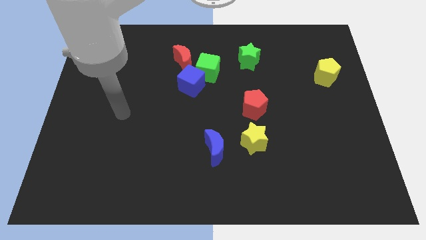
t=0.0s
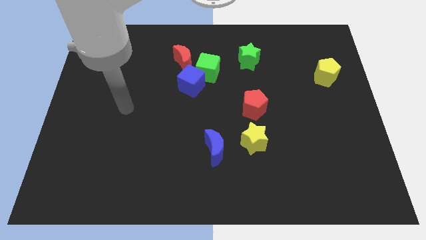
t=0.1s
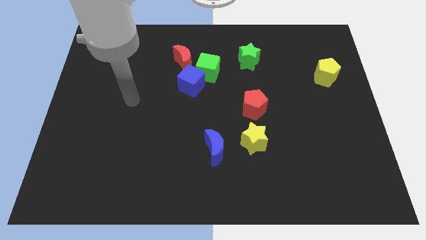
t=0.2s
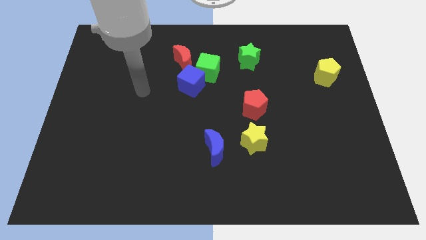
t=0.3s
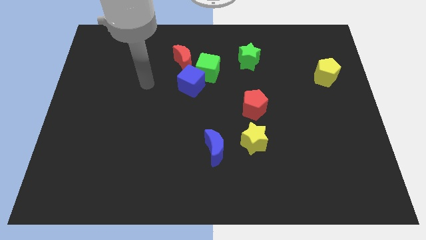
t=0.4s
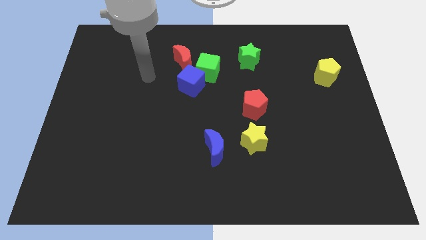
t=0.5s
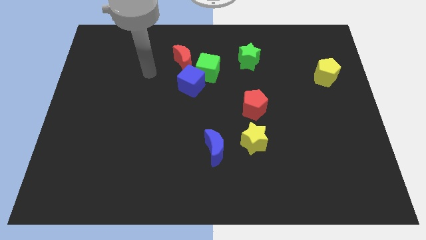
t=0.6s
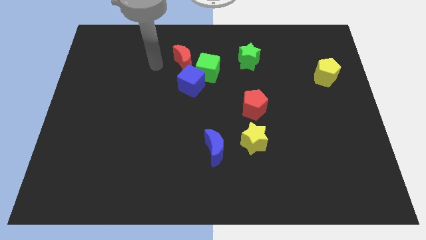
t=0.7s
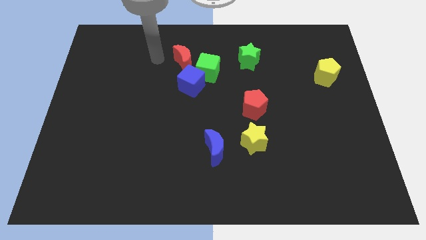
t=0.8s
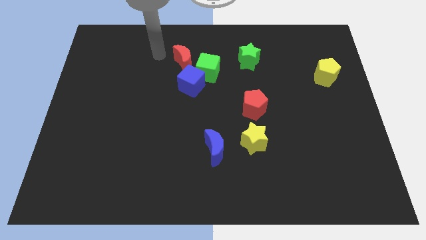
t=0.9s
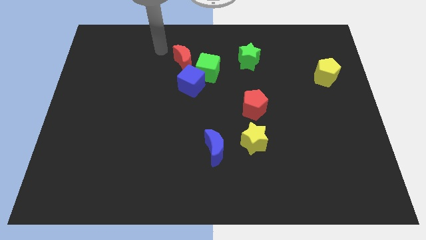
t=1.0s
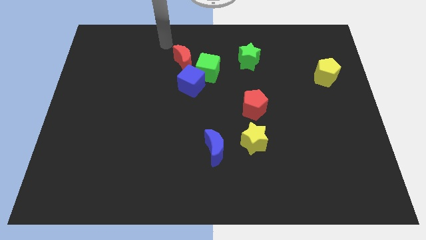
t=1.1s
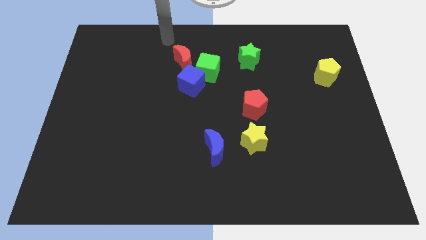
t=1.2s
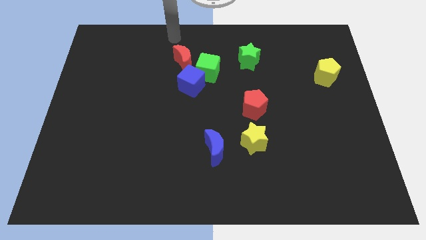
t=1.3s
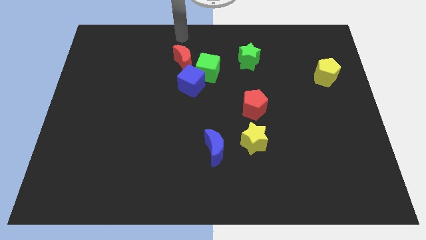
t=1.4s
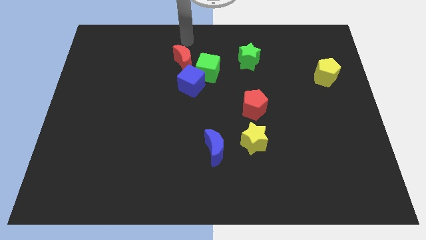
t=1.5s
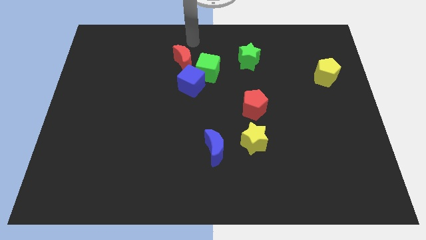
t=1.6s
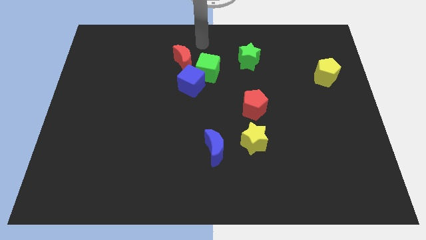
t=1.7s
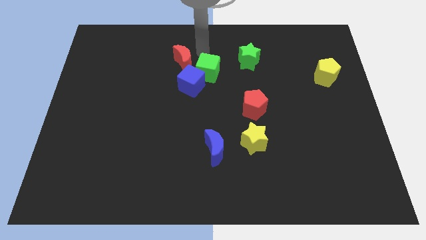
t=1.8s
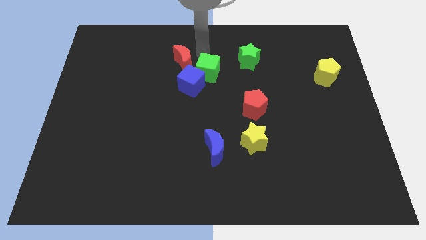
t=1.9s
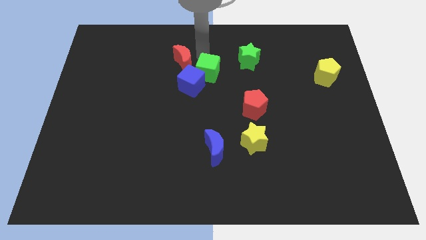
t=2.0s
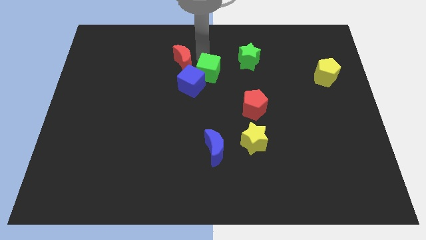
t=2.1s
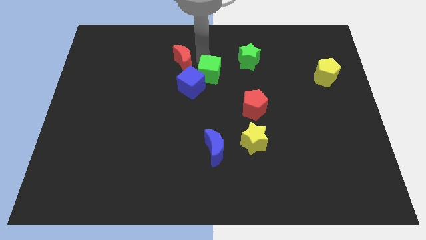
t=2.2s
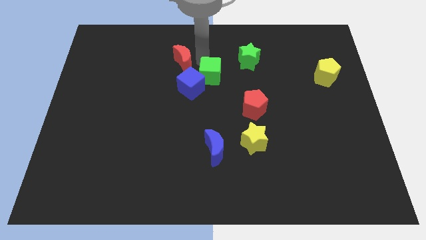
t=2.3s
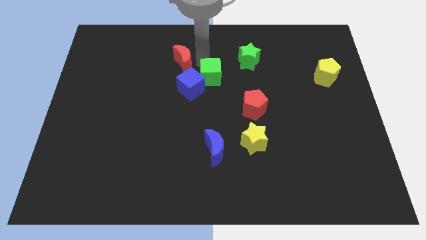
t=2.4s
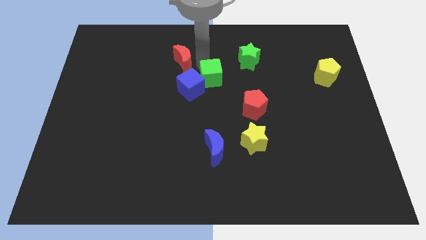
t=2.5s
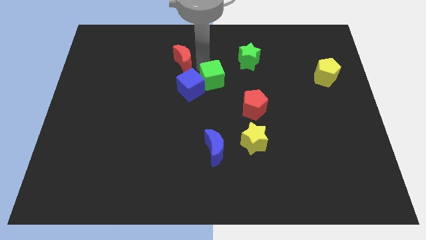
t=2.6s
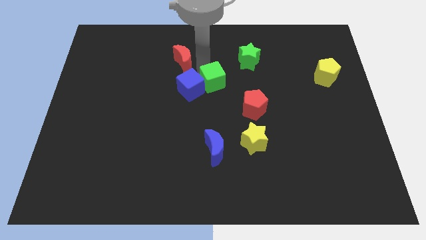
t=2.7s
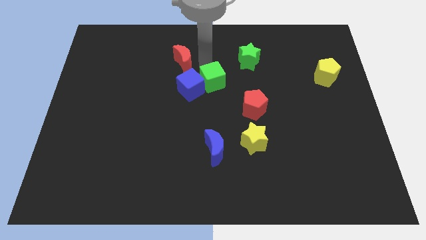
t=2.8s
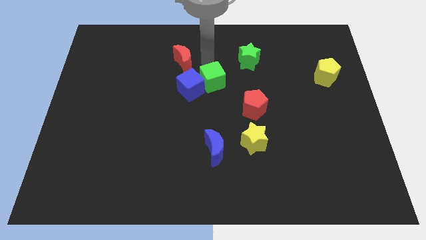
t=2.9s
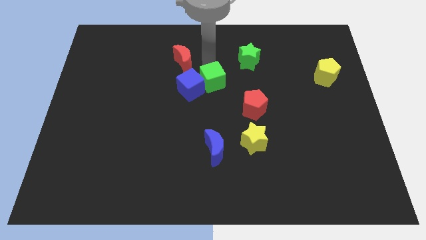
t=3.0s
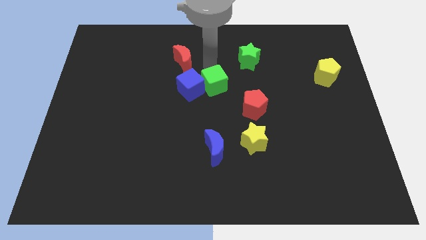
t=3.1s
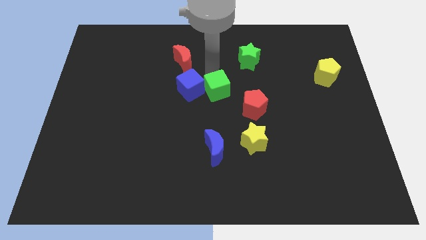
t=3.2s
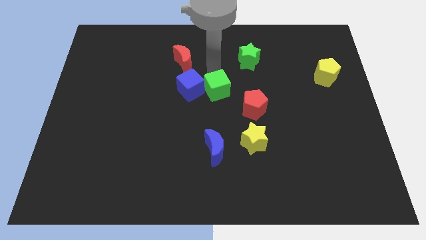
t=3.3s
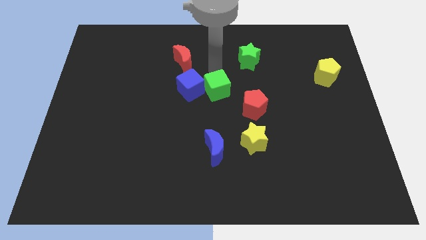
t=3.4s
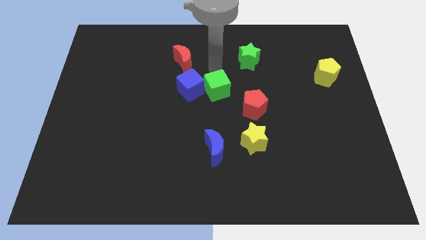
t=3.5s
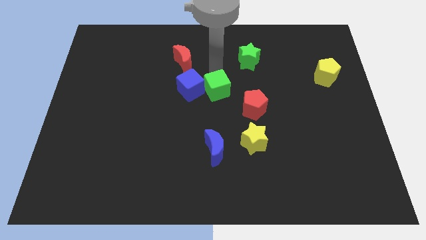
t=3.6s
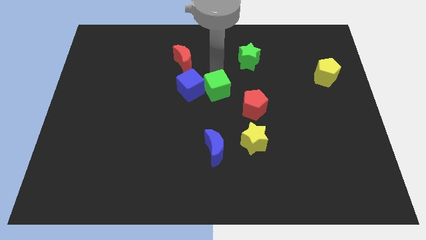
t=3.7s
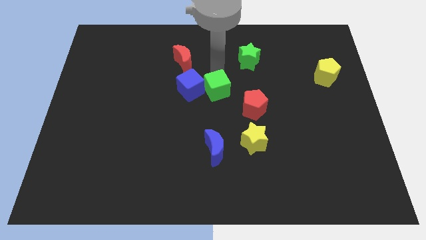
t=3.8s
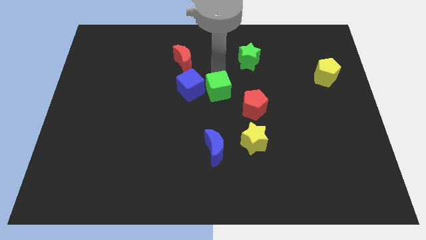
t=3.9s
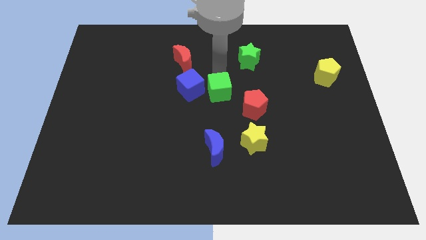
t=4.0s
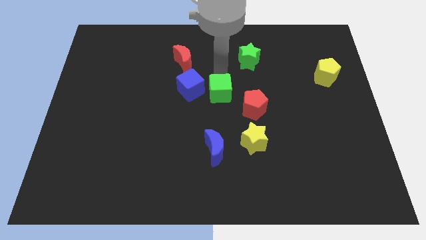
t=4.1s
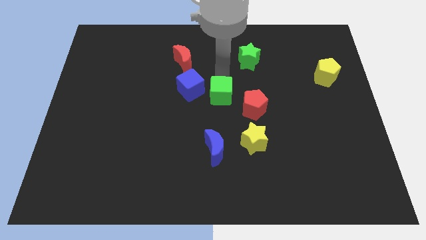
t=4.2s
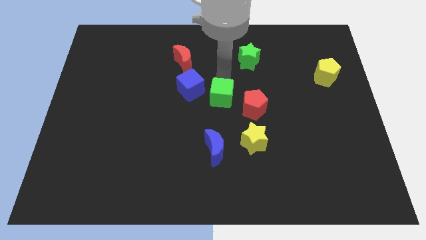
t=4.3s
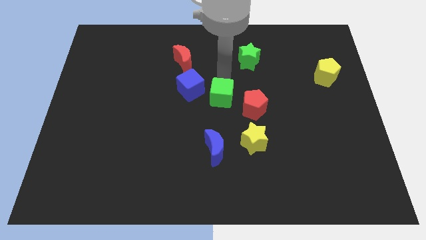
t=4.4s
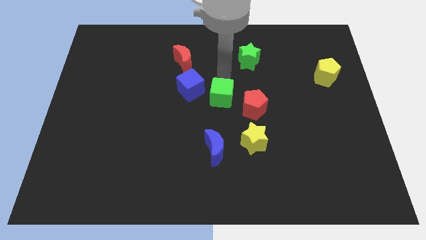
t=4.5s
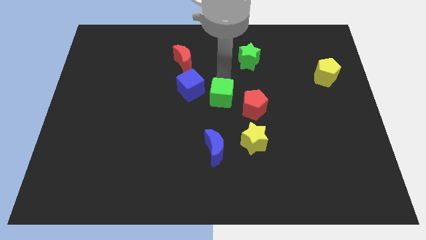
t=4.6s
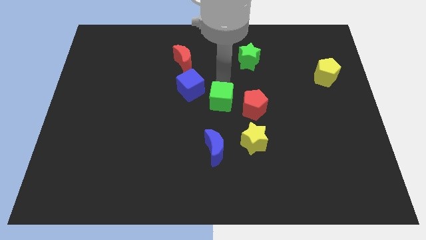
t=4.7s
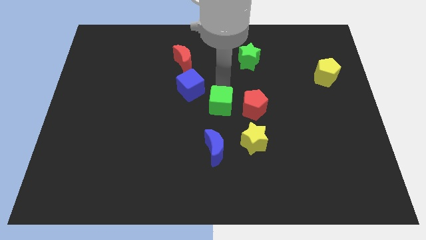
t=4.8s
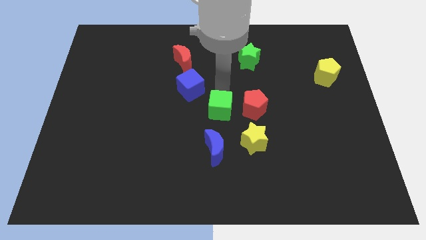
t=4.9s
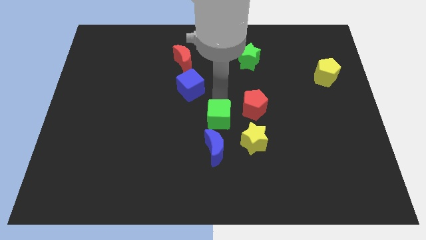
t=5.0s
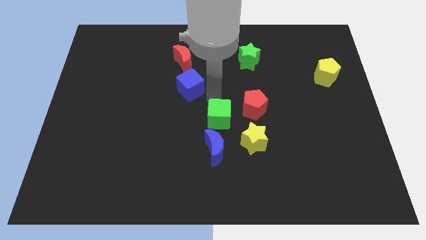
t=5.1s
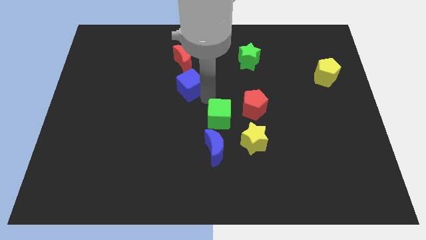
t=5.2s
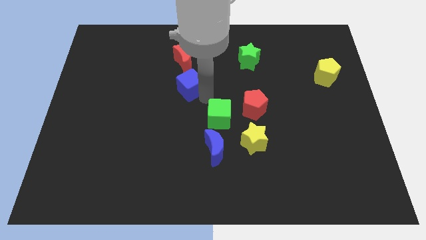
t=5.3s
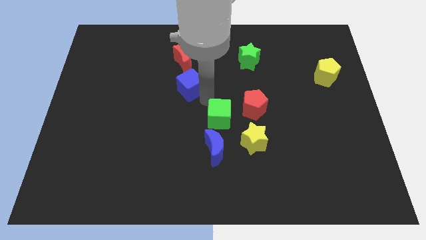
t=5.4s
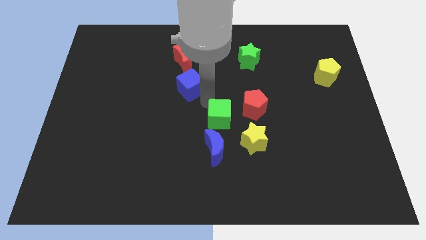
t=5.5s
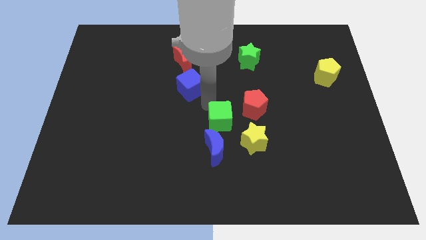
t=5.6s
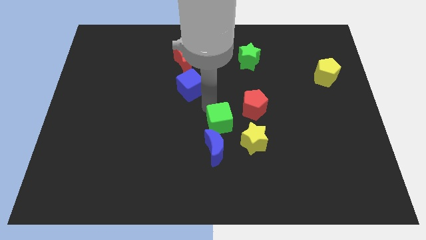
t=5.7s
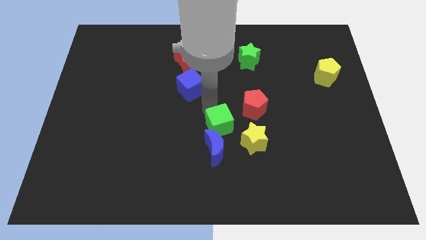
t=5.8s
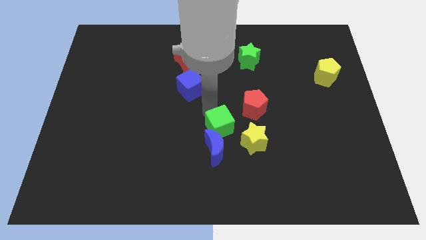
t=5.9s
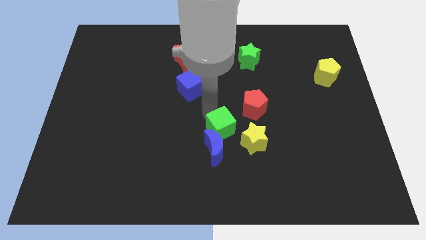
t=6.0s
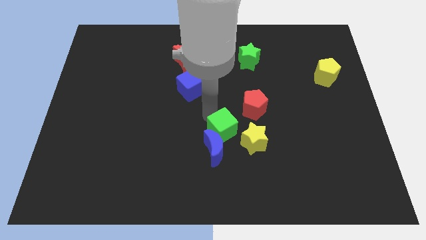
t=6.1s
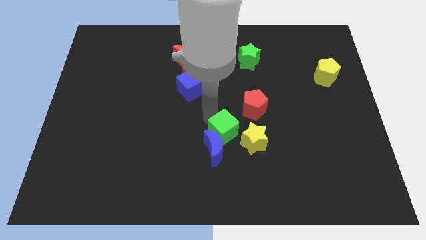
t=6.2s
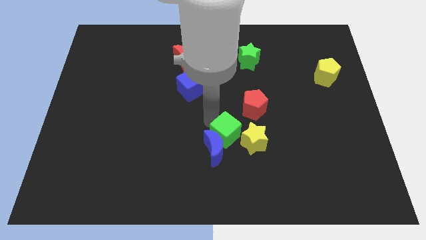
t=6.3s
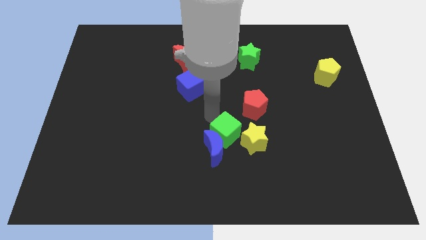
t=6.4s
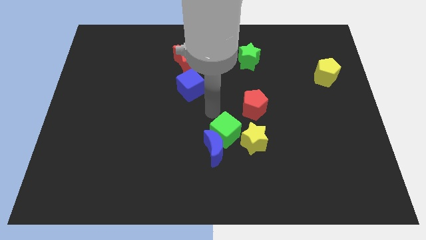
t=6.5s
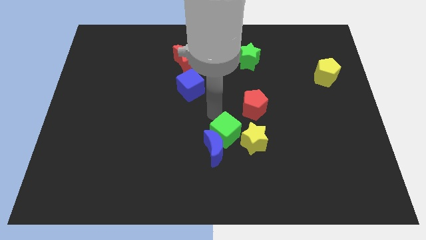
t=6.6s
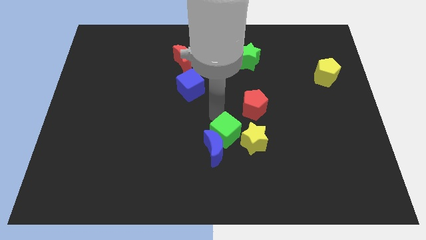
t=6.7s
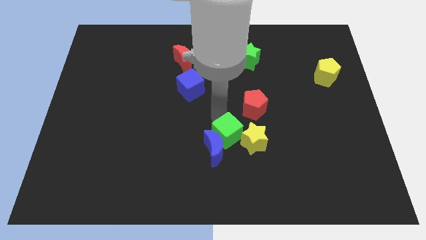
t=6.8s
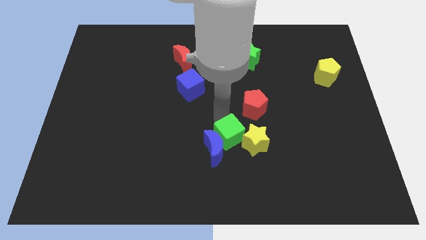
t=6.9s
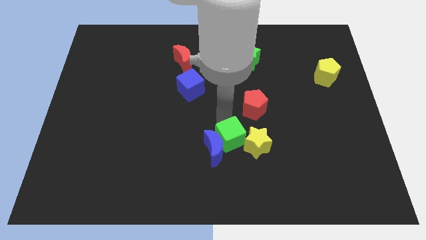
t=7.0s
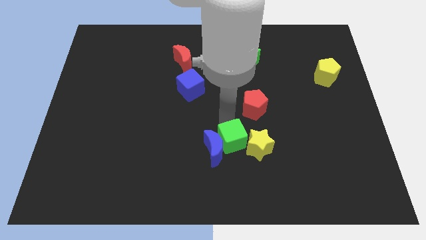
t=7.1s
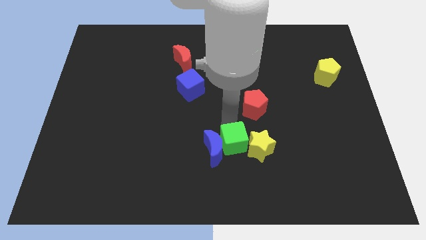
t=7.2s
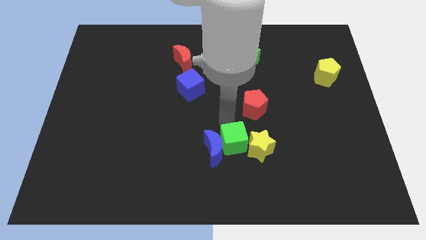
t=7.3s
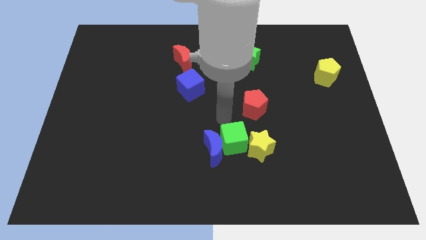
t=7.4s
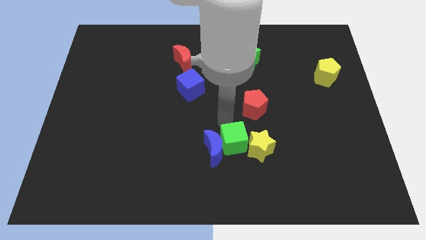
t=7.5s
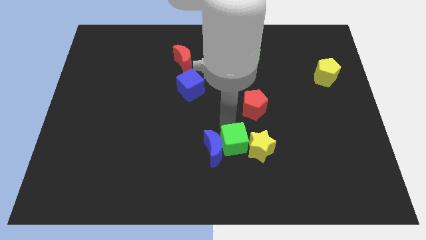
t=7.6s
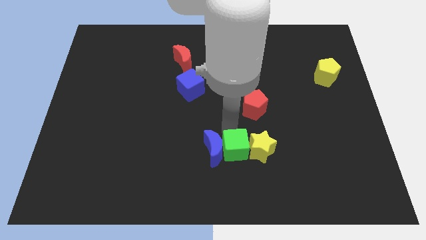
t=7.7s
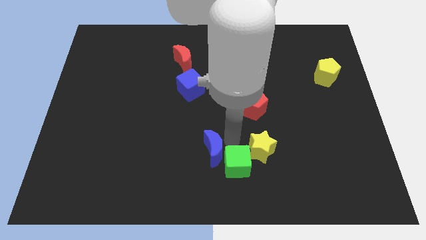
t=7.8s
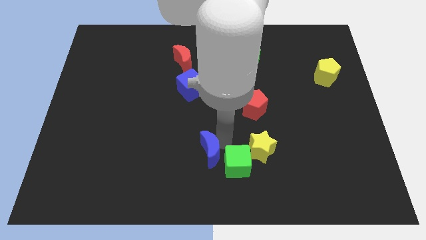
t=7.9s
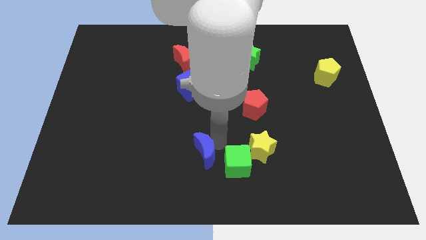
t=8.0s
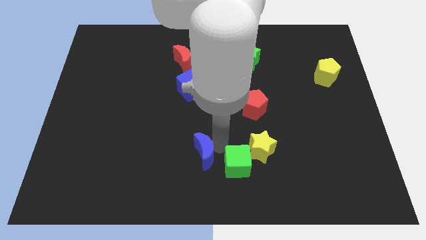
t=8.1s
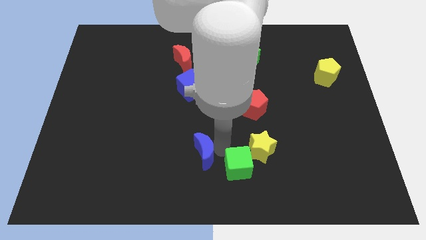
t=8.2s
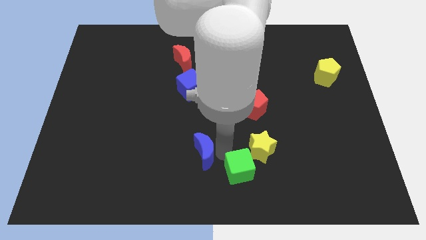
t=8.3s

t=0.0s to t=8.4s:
move the green cube below the yellow star
